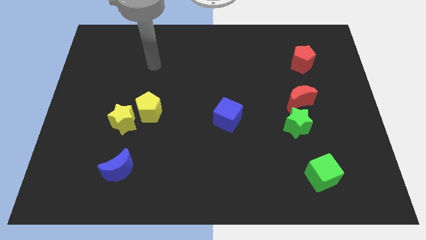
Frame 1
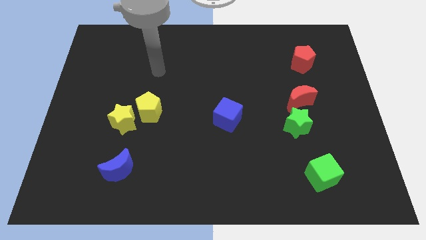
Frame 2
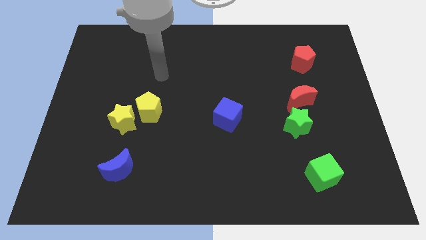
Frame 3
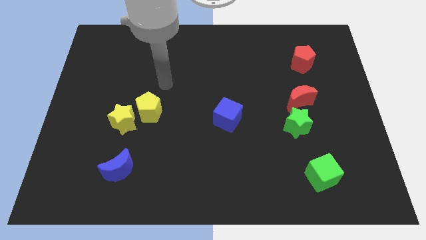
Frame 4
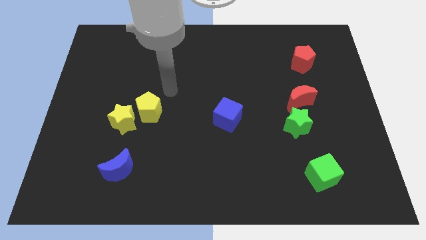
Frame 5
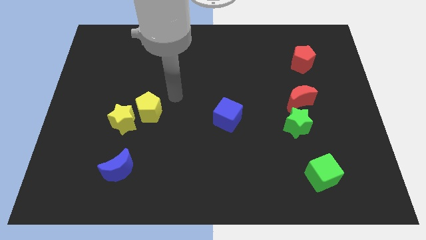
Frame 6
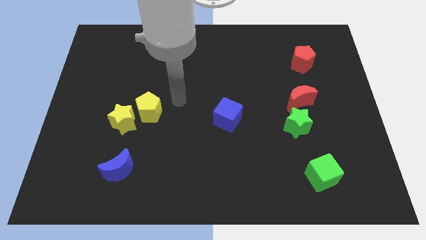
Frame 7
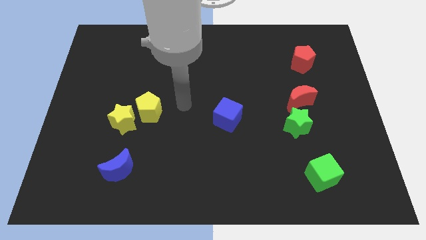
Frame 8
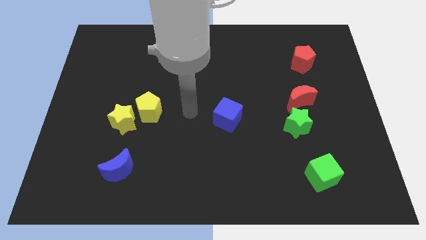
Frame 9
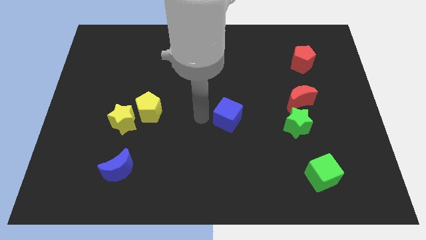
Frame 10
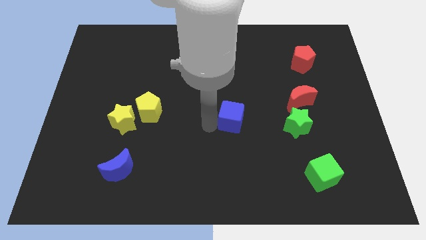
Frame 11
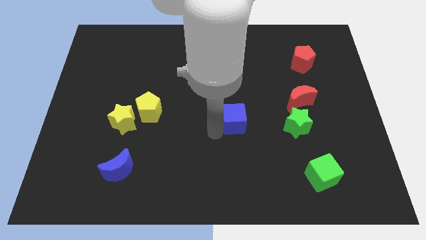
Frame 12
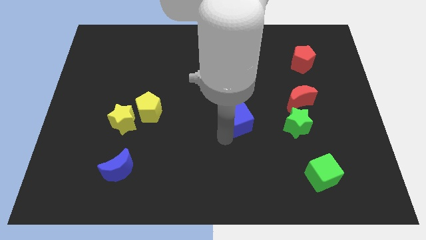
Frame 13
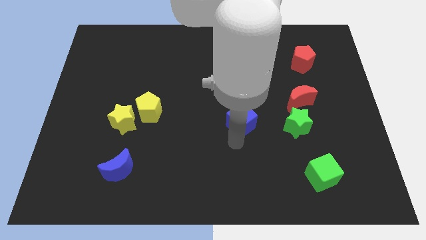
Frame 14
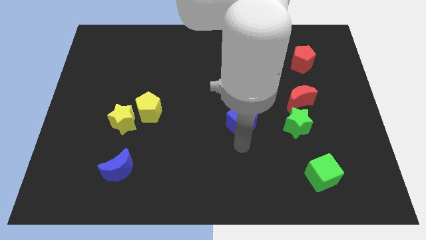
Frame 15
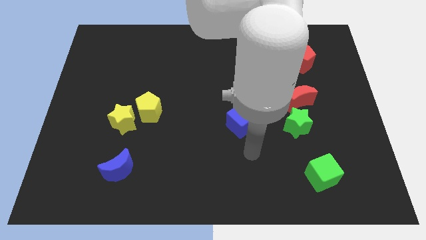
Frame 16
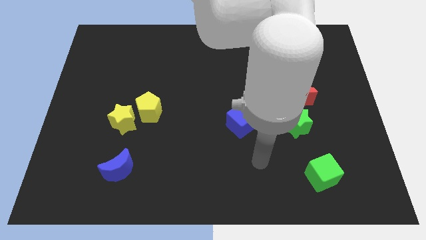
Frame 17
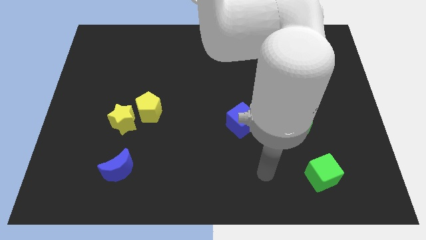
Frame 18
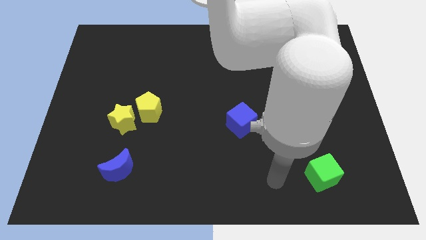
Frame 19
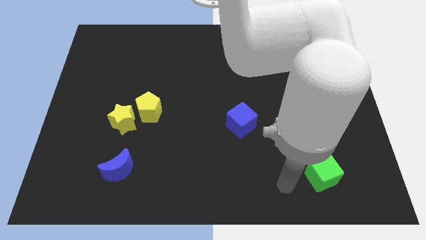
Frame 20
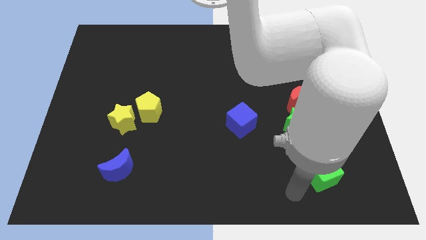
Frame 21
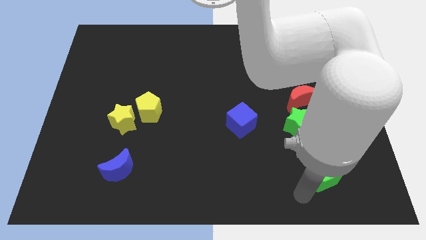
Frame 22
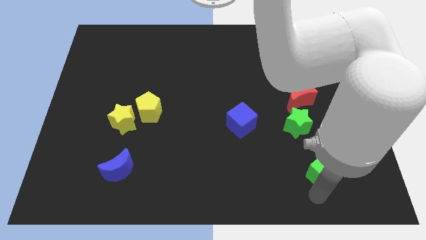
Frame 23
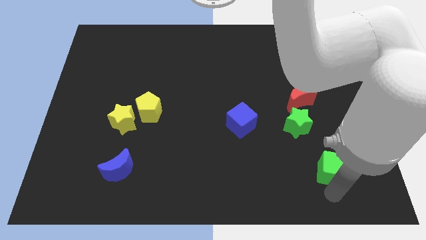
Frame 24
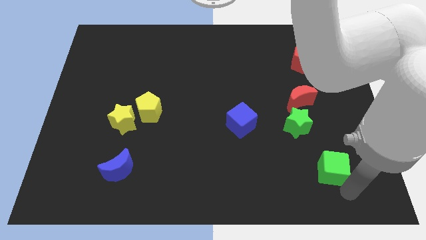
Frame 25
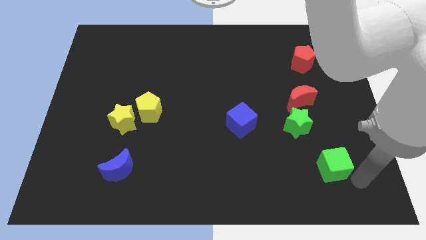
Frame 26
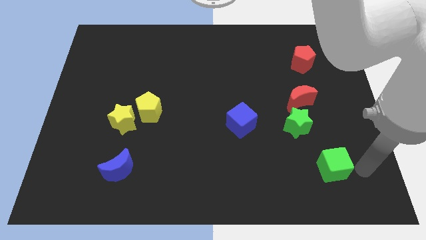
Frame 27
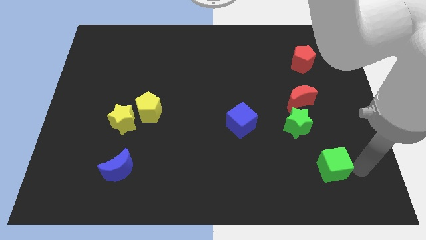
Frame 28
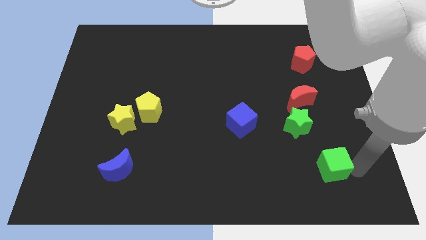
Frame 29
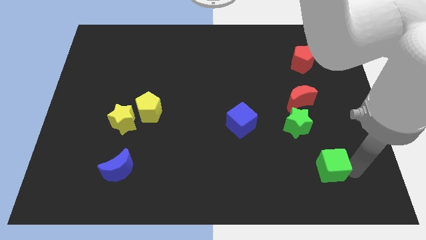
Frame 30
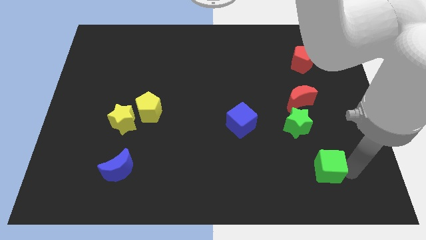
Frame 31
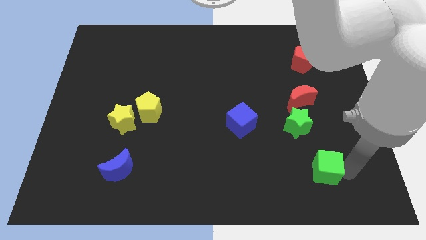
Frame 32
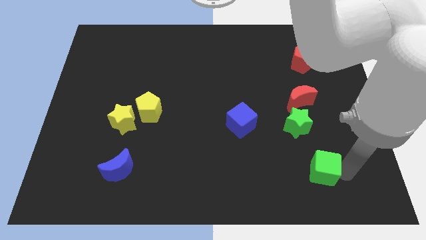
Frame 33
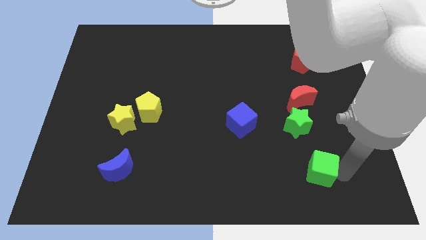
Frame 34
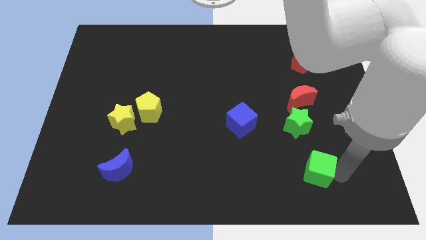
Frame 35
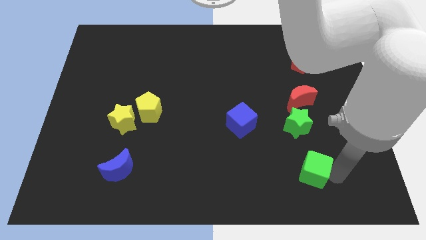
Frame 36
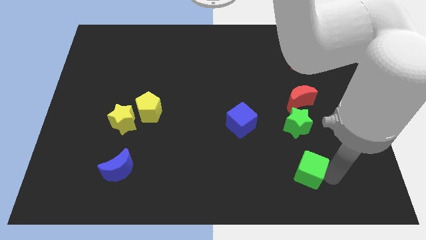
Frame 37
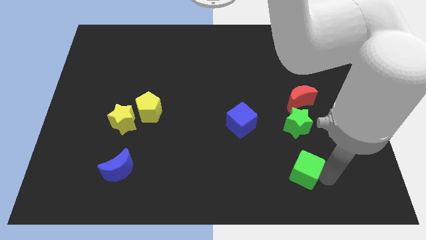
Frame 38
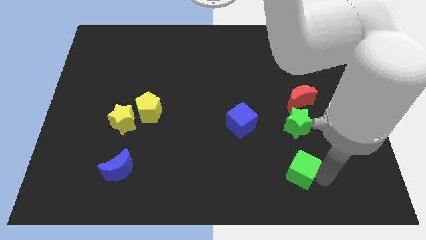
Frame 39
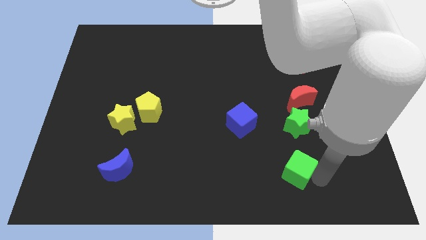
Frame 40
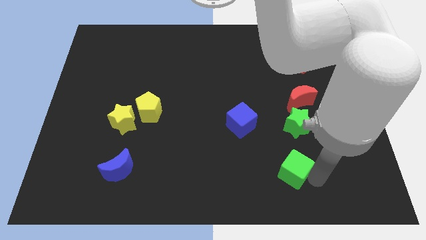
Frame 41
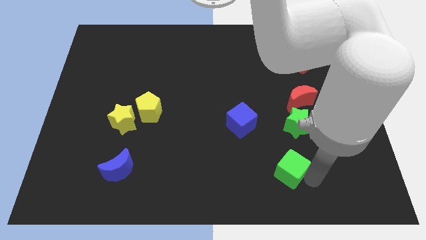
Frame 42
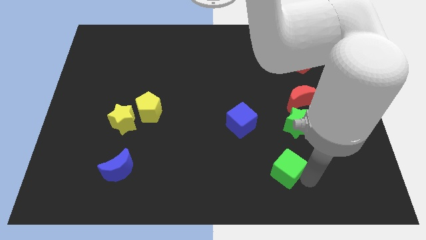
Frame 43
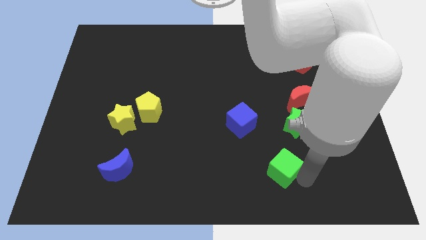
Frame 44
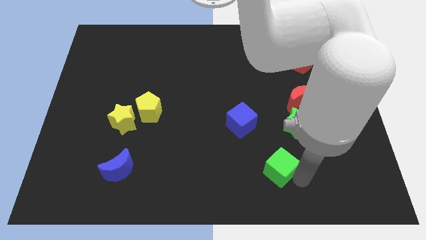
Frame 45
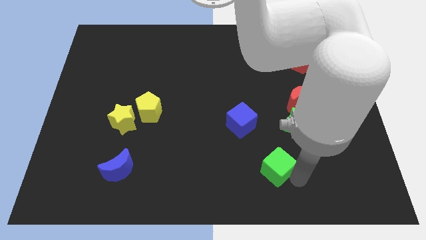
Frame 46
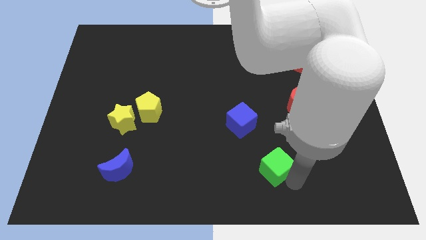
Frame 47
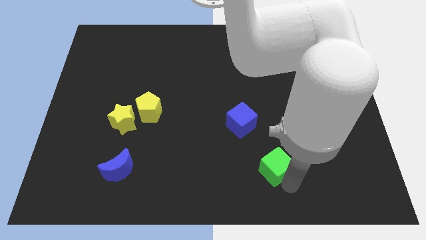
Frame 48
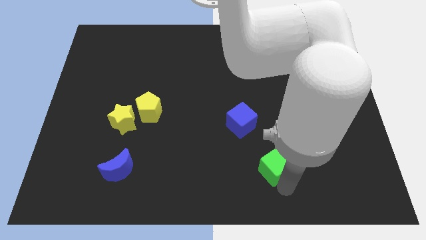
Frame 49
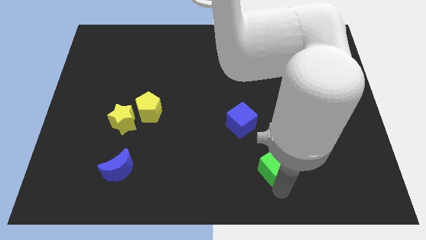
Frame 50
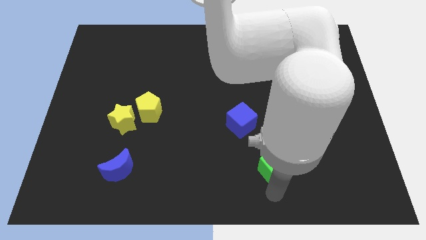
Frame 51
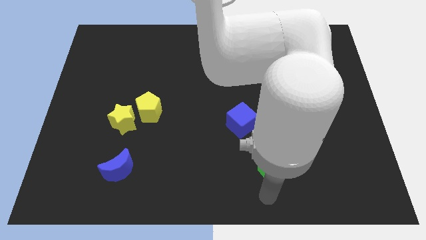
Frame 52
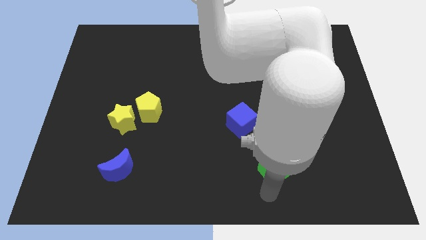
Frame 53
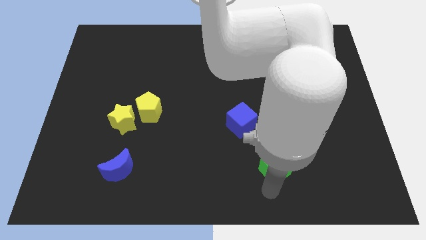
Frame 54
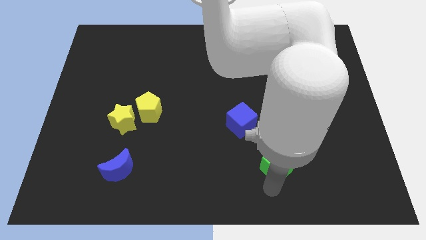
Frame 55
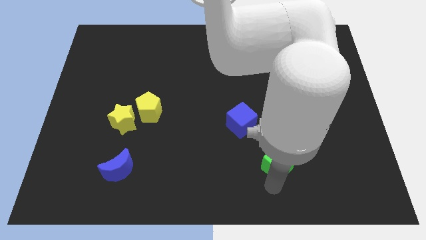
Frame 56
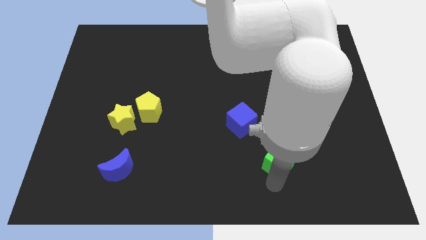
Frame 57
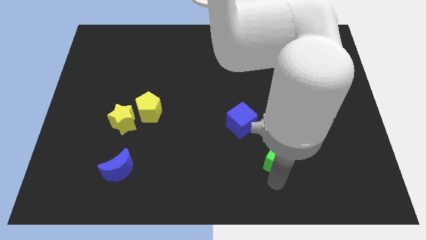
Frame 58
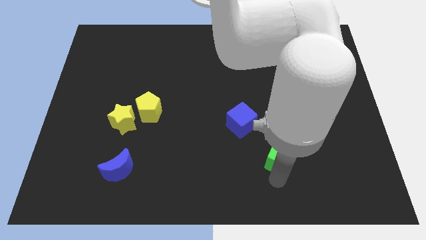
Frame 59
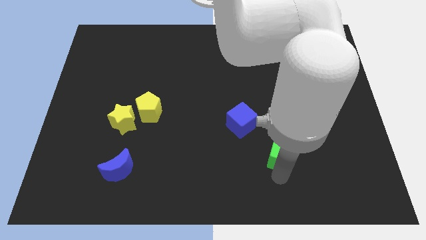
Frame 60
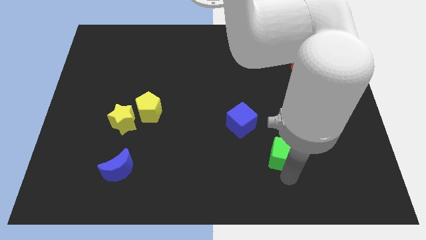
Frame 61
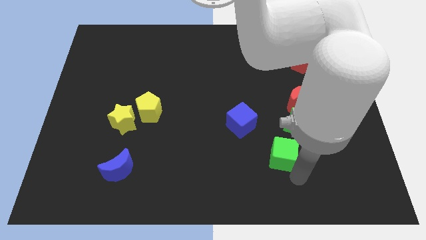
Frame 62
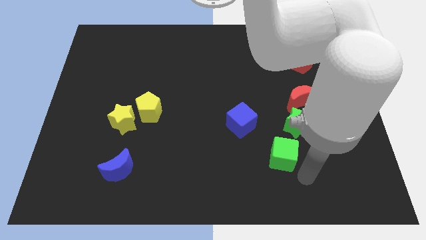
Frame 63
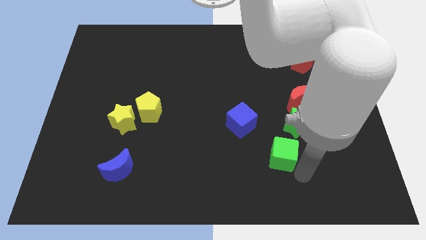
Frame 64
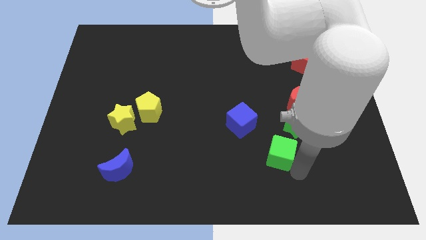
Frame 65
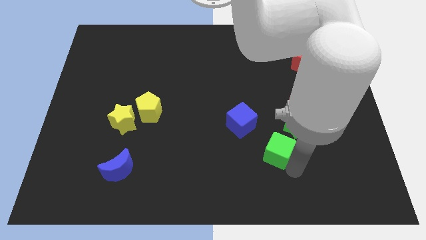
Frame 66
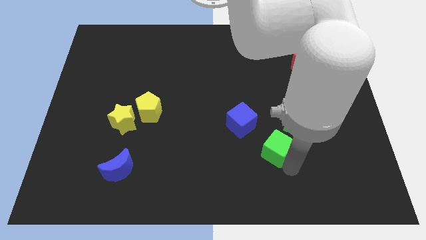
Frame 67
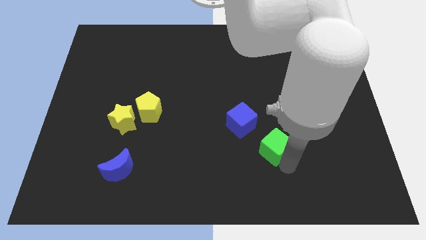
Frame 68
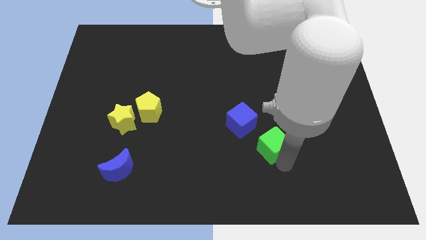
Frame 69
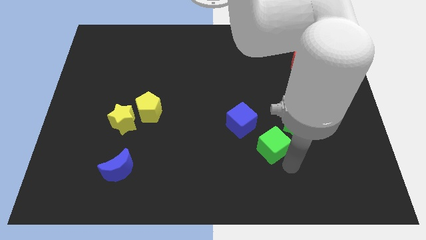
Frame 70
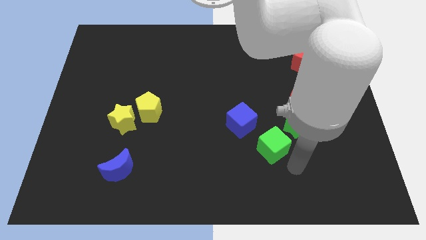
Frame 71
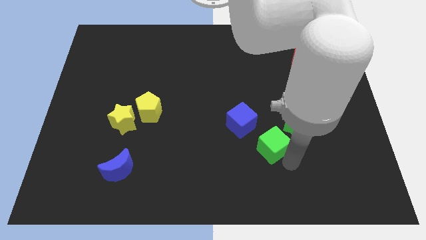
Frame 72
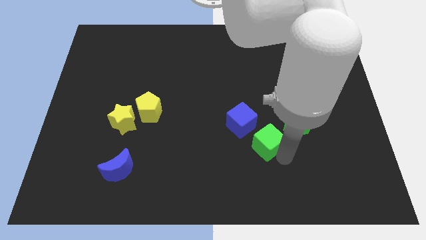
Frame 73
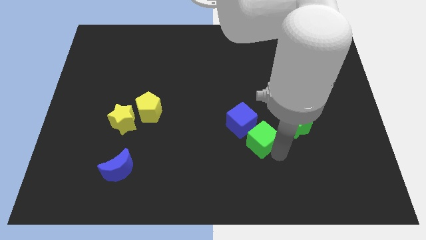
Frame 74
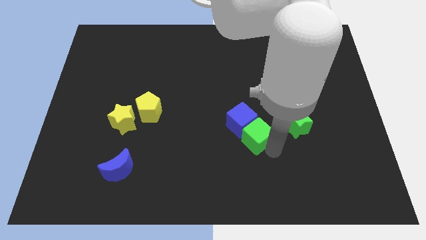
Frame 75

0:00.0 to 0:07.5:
move the green cube next to the blue cube
